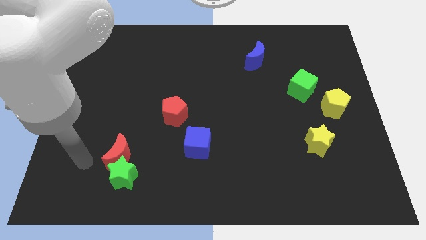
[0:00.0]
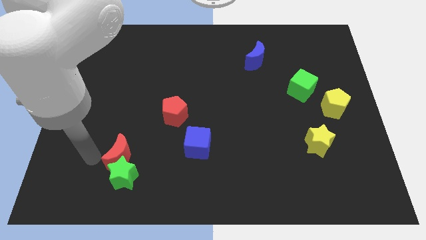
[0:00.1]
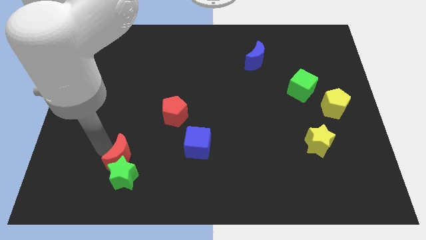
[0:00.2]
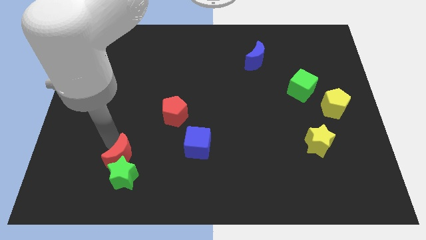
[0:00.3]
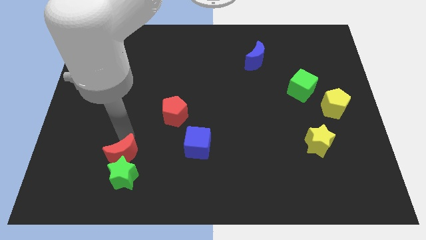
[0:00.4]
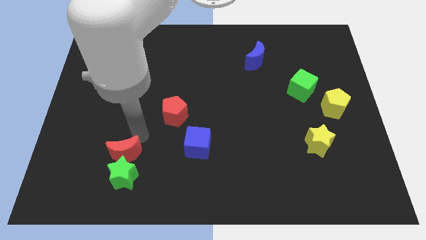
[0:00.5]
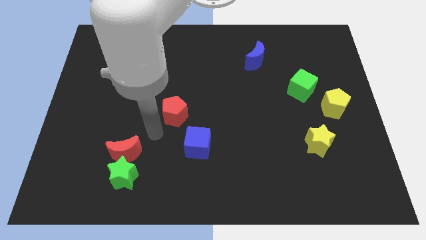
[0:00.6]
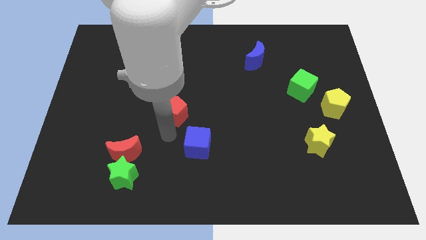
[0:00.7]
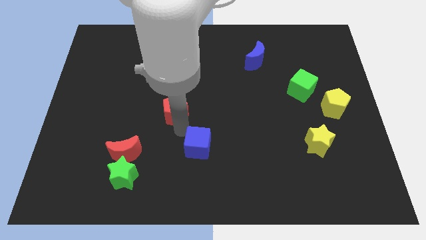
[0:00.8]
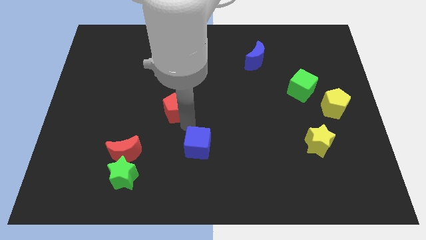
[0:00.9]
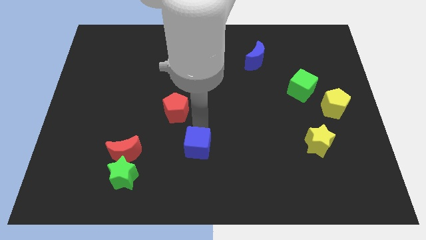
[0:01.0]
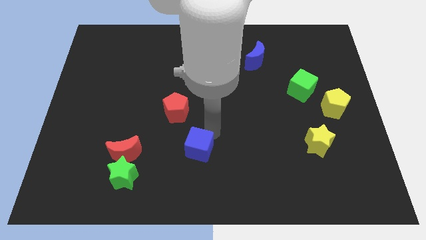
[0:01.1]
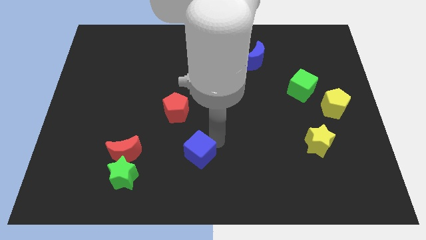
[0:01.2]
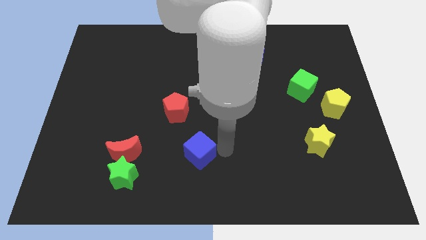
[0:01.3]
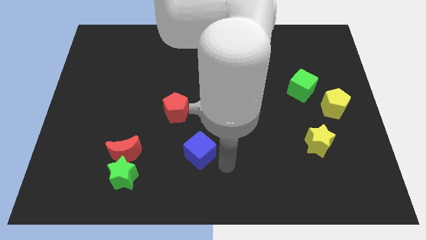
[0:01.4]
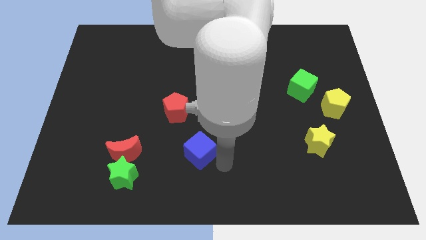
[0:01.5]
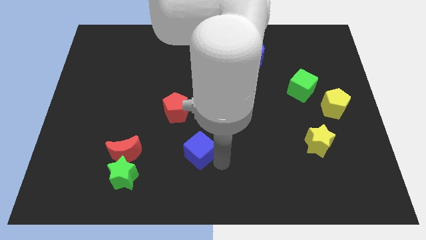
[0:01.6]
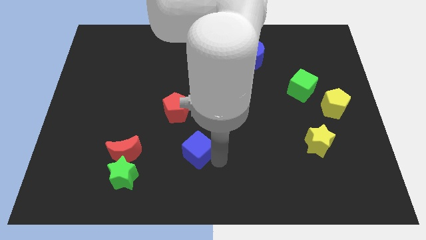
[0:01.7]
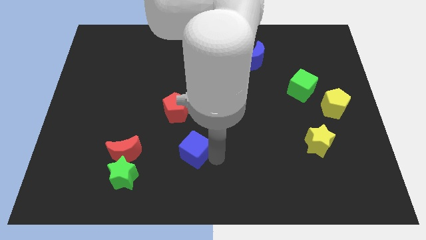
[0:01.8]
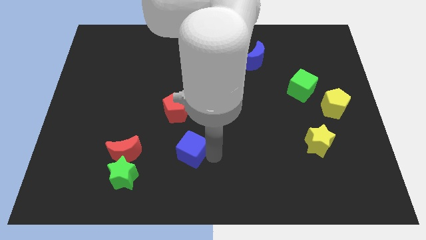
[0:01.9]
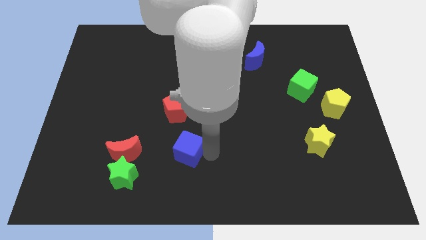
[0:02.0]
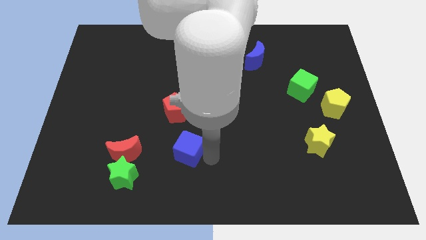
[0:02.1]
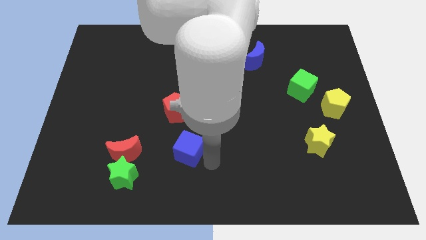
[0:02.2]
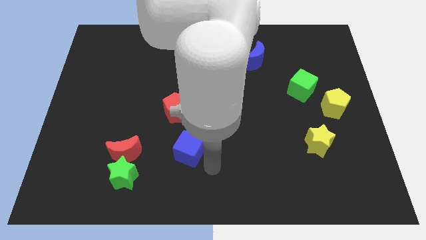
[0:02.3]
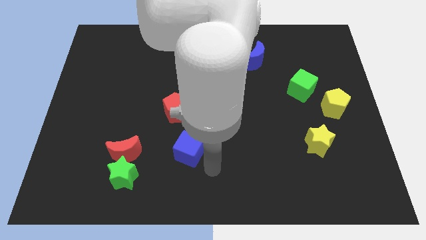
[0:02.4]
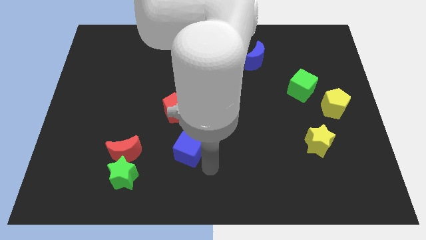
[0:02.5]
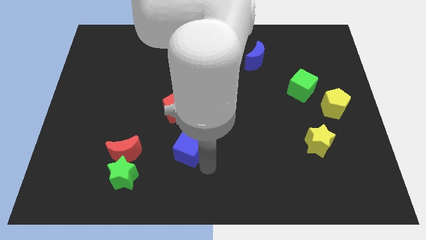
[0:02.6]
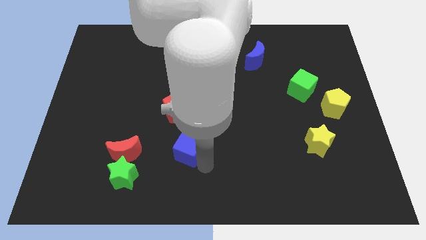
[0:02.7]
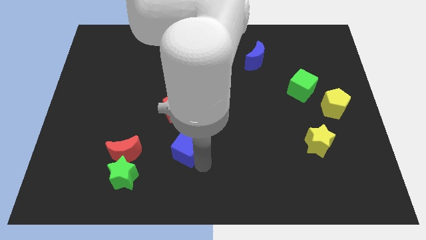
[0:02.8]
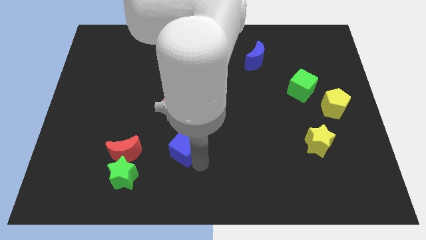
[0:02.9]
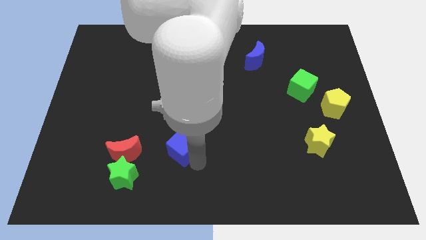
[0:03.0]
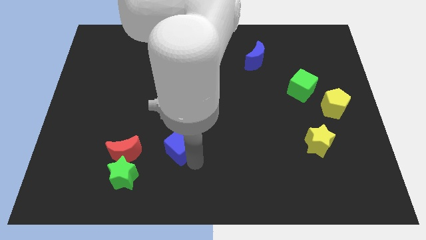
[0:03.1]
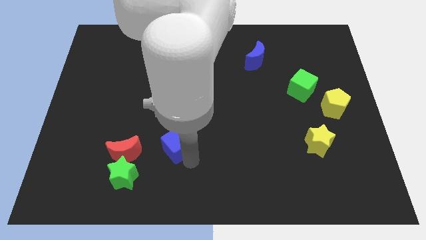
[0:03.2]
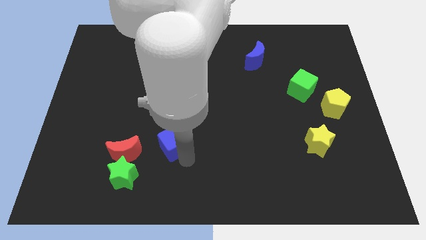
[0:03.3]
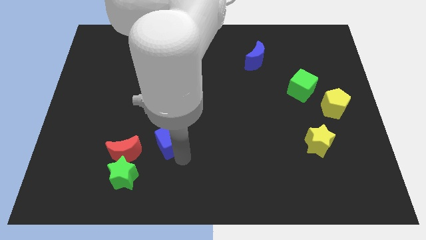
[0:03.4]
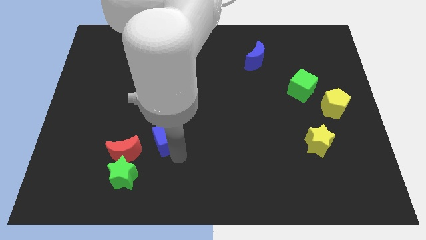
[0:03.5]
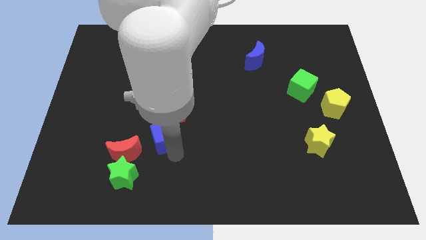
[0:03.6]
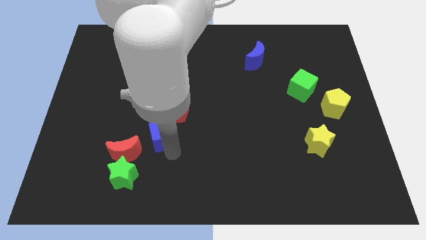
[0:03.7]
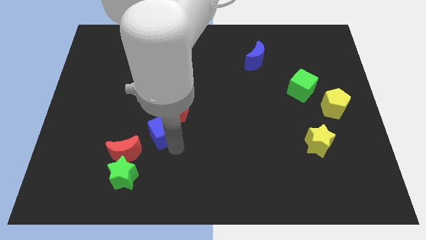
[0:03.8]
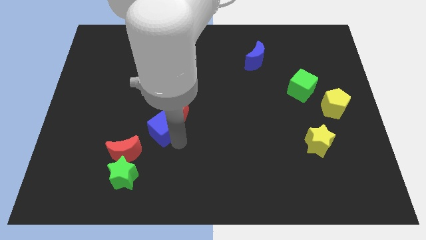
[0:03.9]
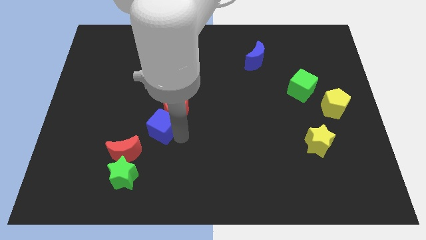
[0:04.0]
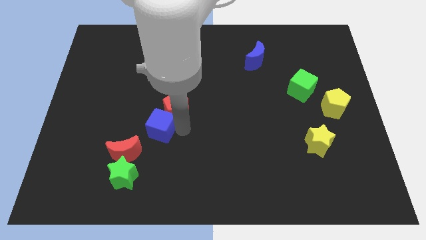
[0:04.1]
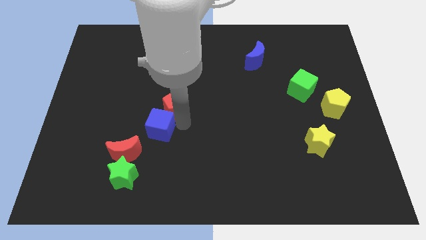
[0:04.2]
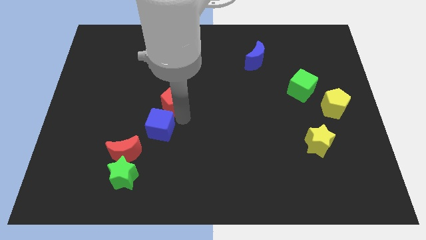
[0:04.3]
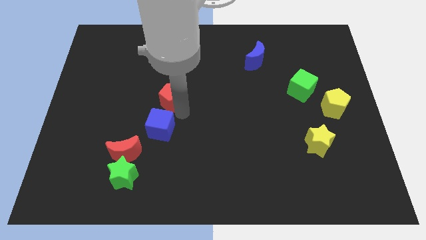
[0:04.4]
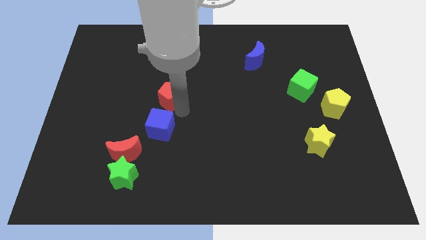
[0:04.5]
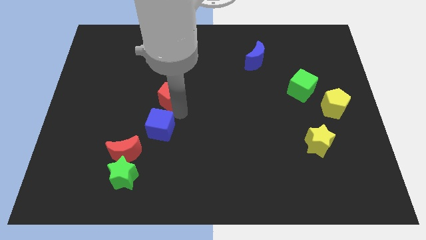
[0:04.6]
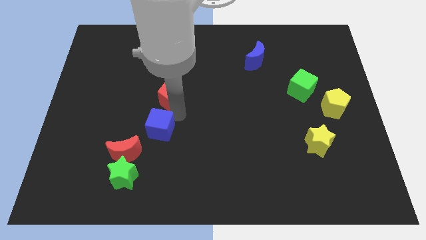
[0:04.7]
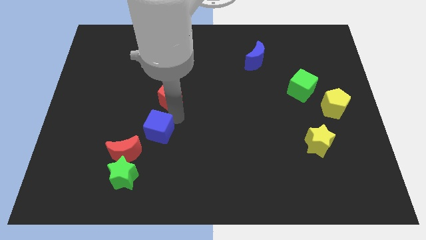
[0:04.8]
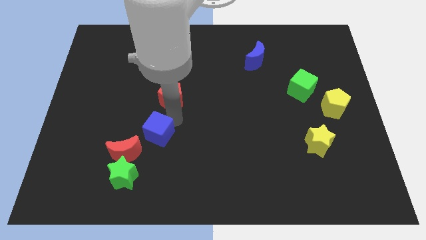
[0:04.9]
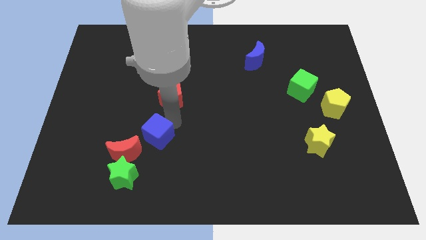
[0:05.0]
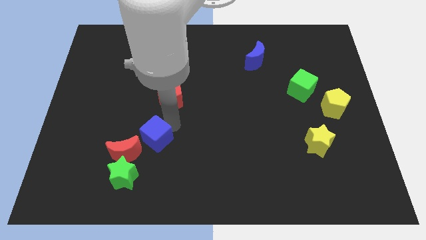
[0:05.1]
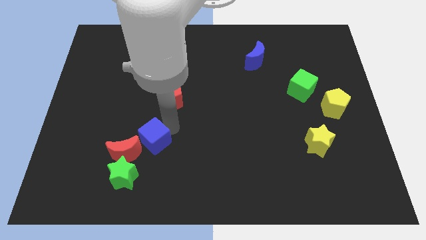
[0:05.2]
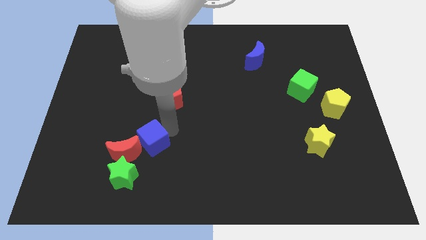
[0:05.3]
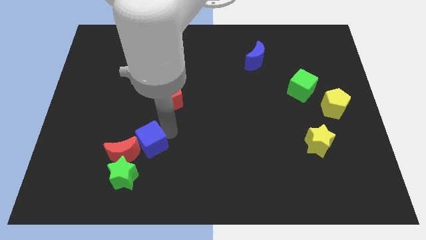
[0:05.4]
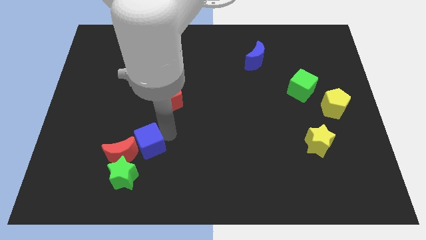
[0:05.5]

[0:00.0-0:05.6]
slide the blue cube close to the red moon
